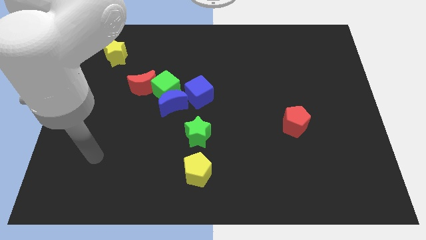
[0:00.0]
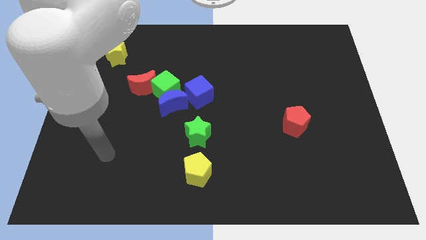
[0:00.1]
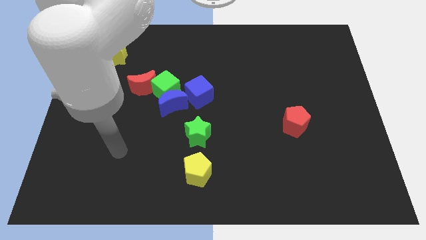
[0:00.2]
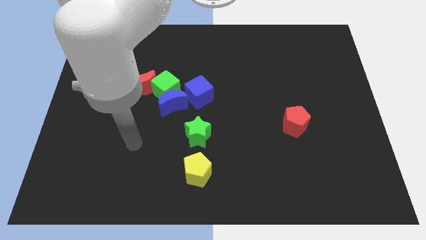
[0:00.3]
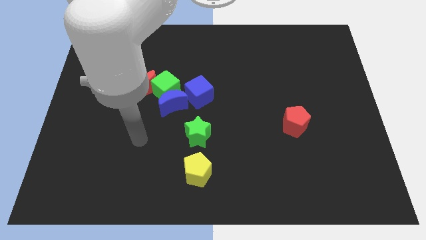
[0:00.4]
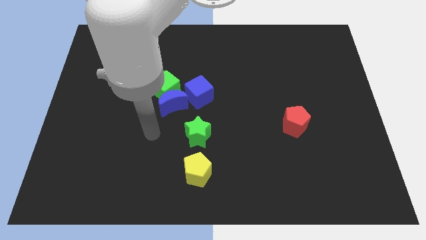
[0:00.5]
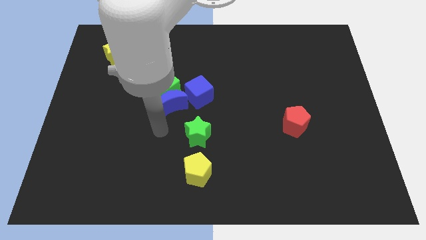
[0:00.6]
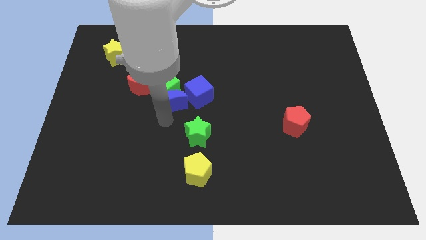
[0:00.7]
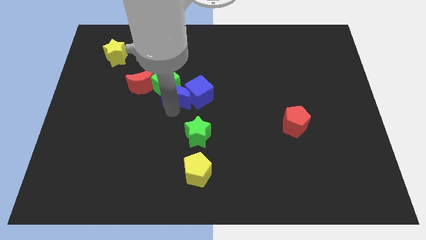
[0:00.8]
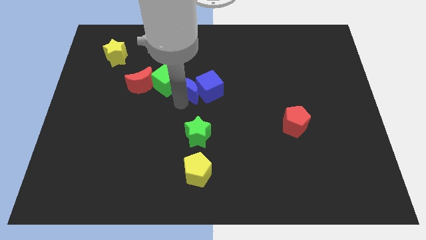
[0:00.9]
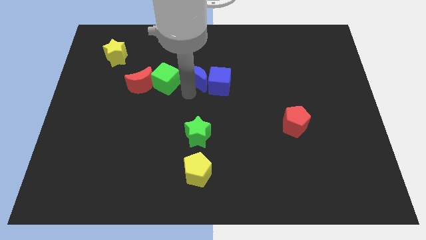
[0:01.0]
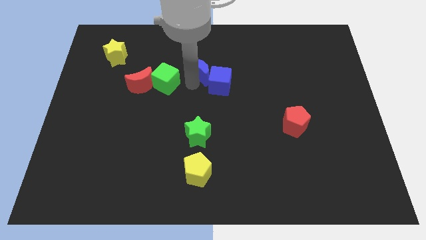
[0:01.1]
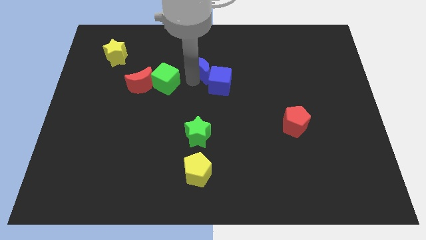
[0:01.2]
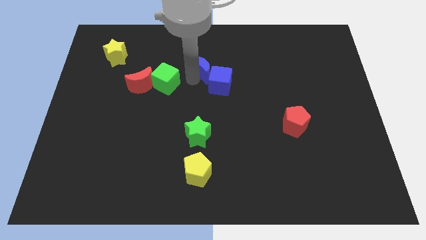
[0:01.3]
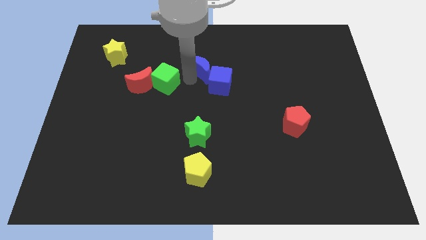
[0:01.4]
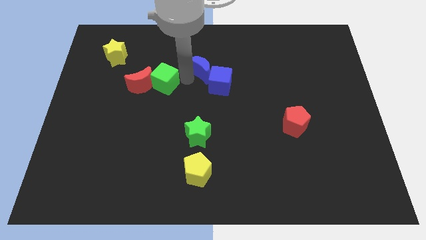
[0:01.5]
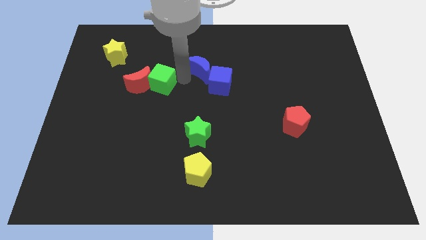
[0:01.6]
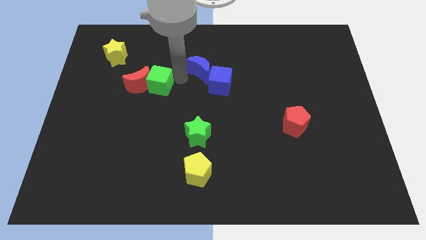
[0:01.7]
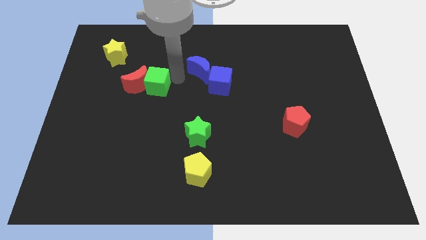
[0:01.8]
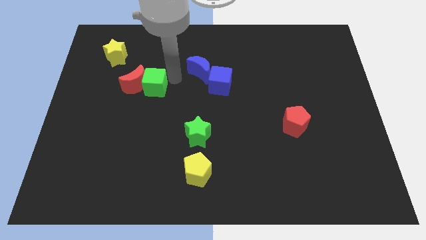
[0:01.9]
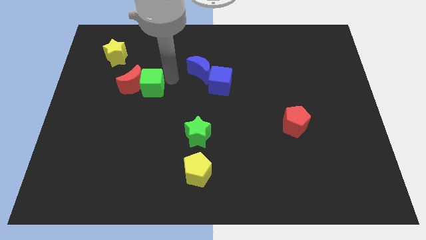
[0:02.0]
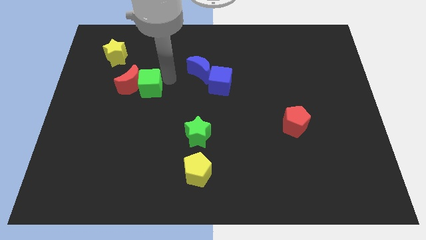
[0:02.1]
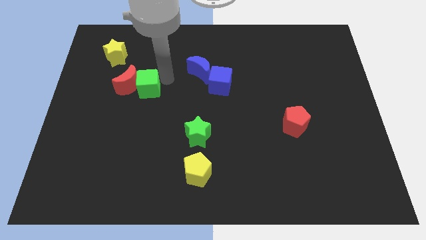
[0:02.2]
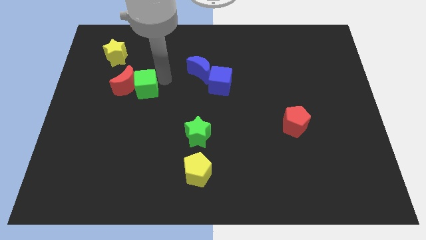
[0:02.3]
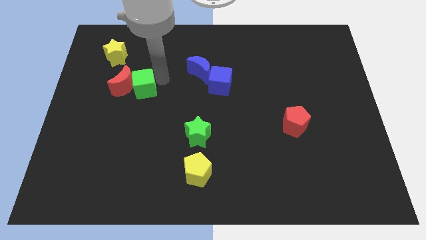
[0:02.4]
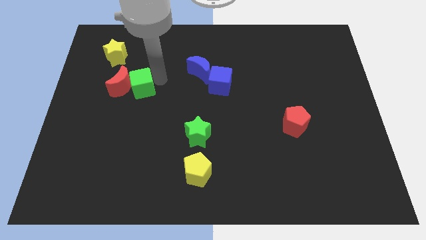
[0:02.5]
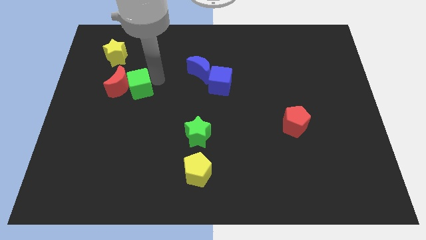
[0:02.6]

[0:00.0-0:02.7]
separate the green cube from the group of blocks

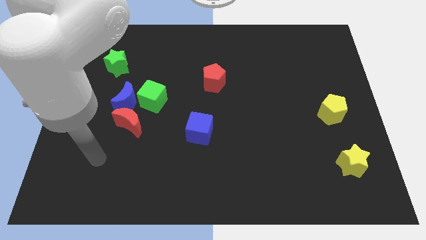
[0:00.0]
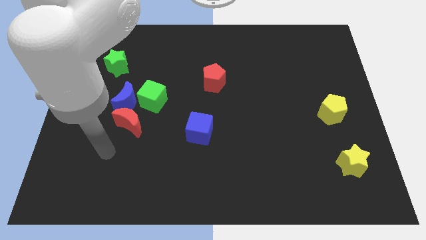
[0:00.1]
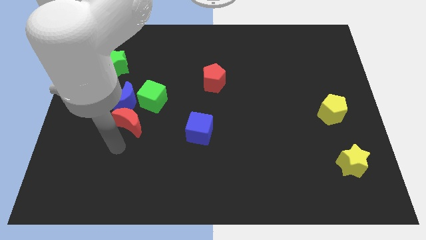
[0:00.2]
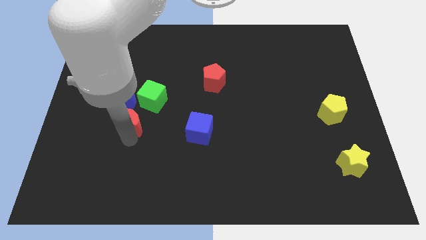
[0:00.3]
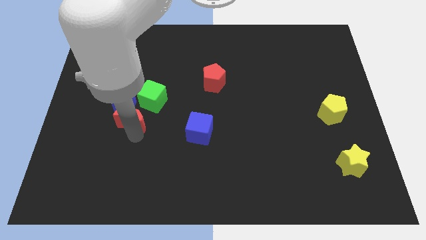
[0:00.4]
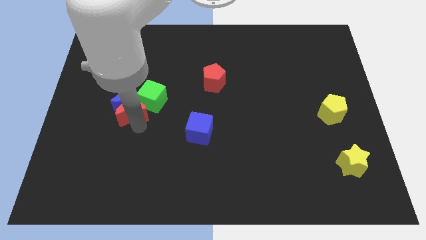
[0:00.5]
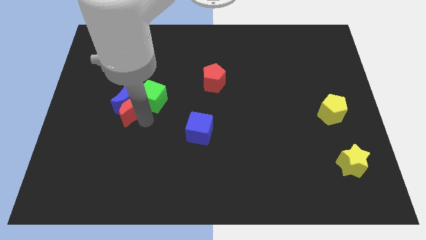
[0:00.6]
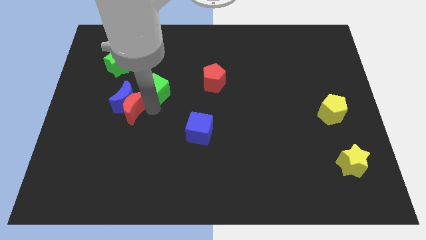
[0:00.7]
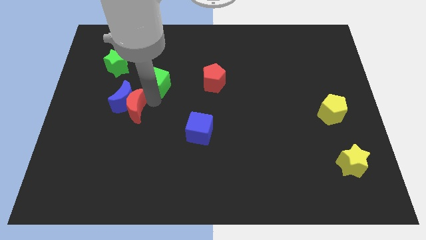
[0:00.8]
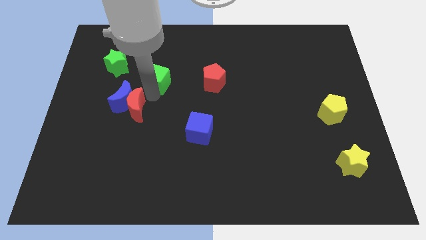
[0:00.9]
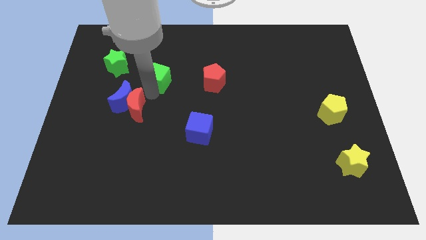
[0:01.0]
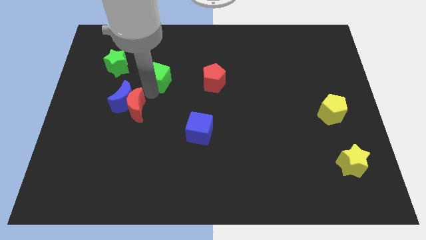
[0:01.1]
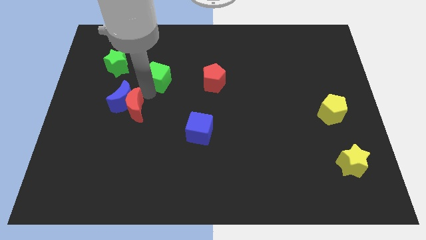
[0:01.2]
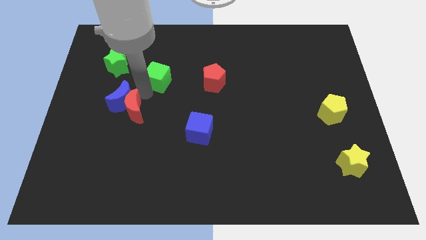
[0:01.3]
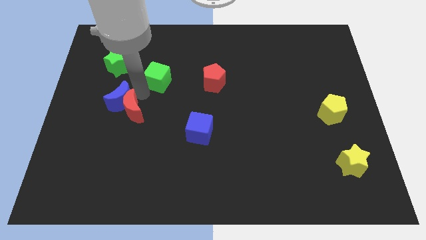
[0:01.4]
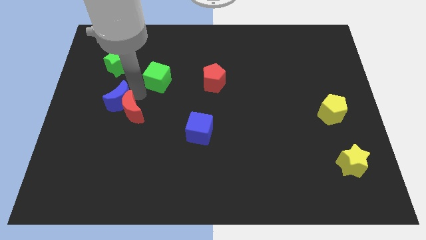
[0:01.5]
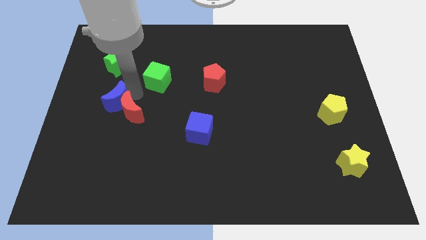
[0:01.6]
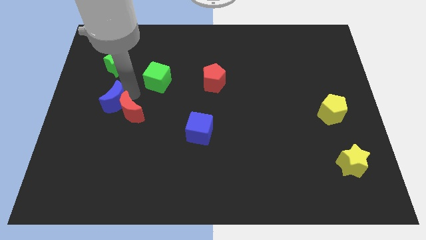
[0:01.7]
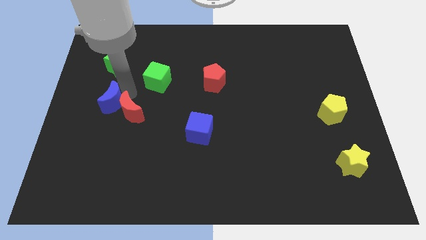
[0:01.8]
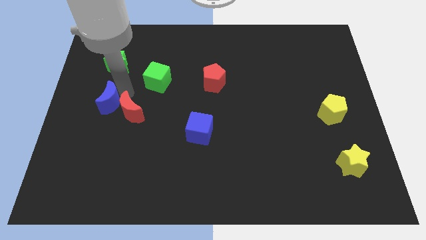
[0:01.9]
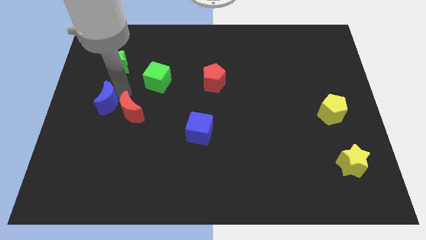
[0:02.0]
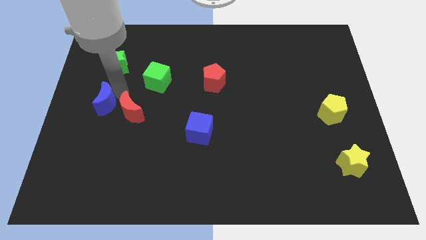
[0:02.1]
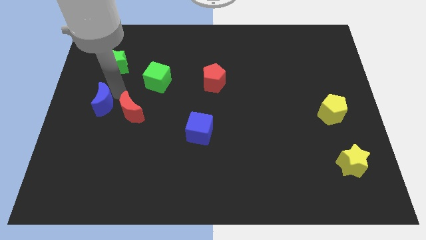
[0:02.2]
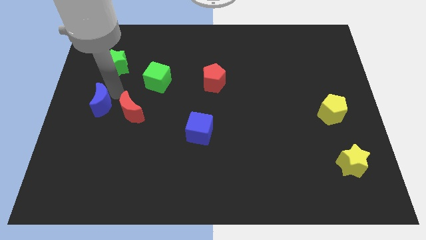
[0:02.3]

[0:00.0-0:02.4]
pull the blue moon apart from the green cube and red moon

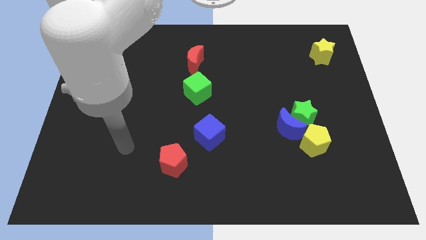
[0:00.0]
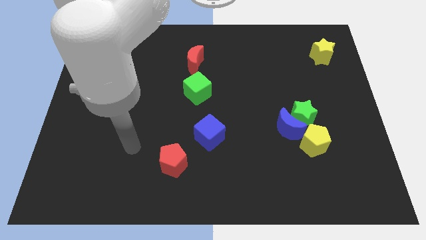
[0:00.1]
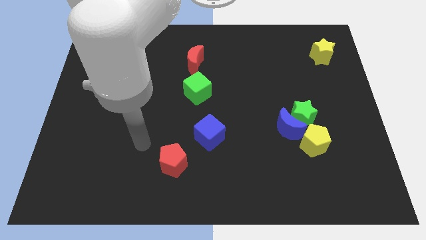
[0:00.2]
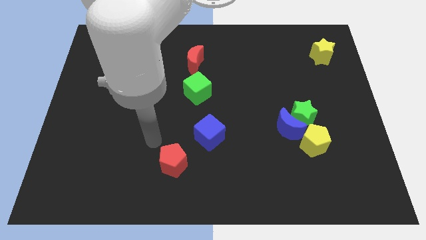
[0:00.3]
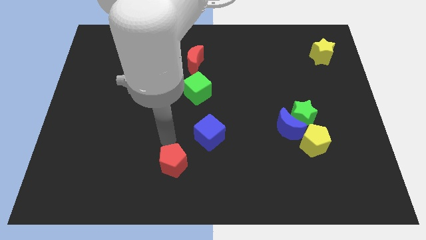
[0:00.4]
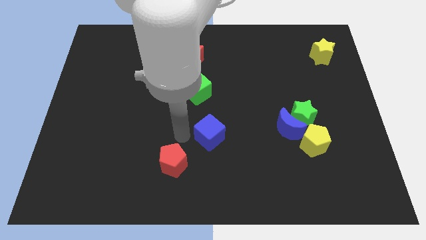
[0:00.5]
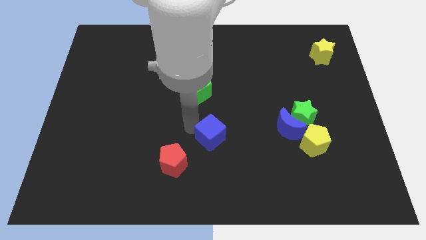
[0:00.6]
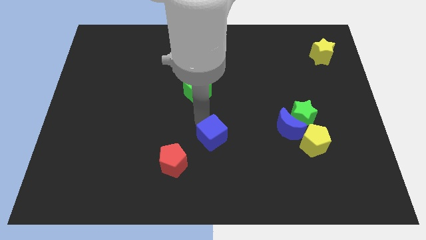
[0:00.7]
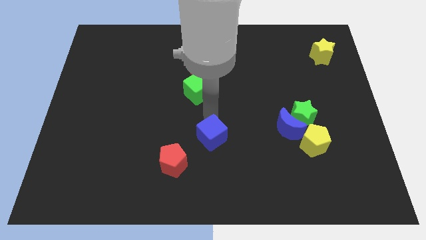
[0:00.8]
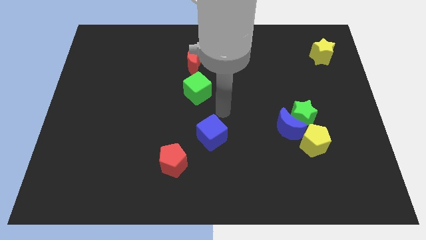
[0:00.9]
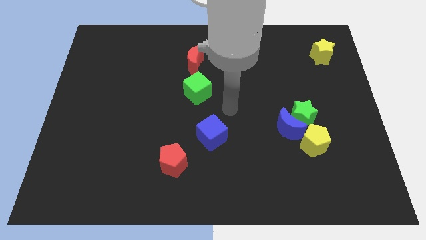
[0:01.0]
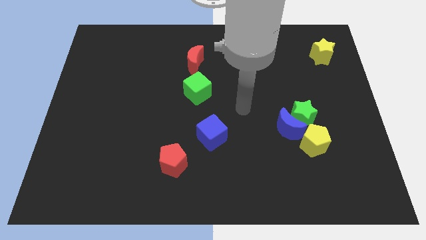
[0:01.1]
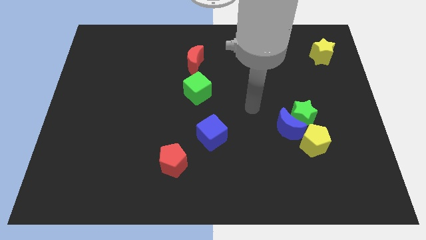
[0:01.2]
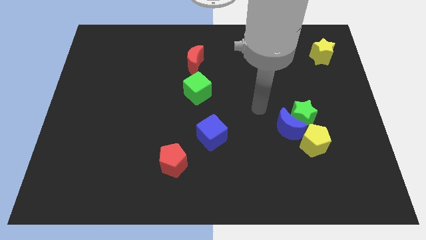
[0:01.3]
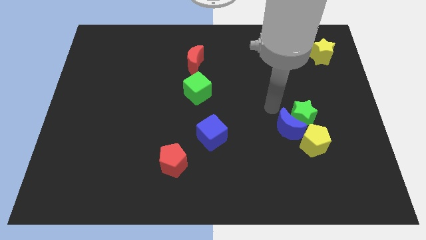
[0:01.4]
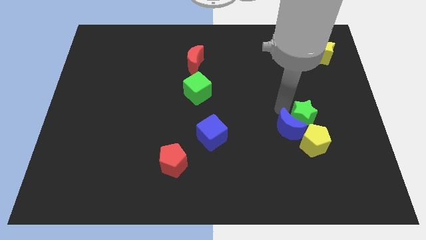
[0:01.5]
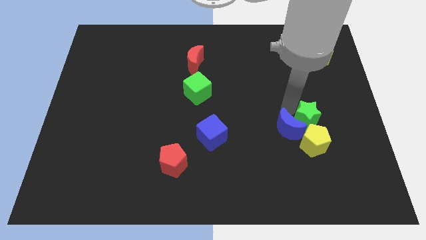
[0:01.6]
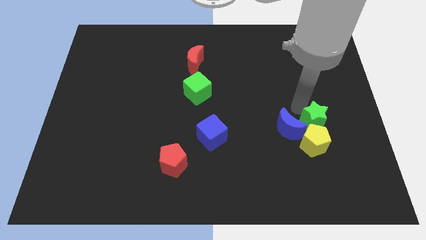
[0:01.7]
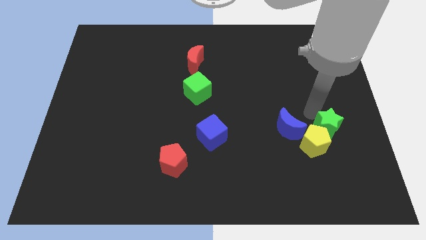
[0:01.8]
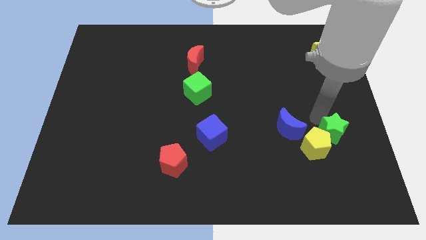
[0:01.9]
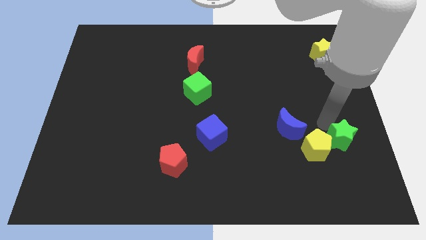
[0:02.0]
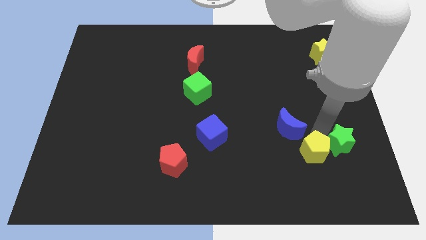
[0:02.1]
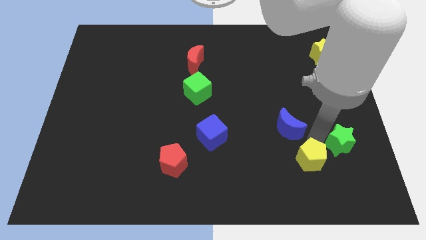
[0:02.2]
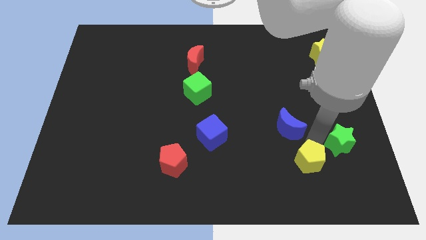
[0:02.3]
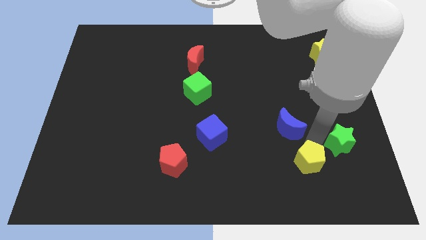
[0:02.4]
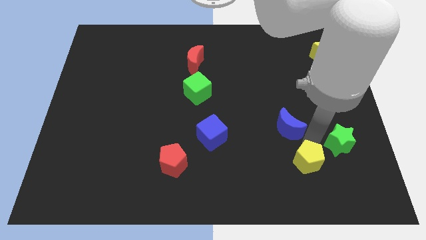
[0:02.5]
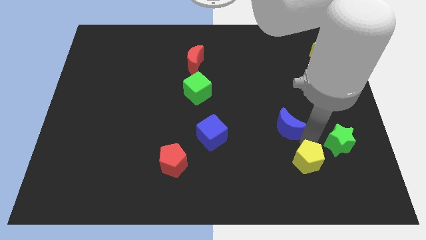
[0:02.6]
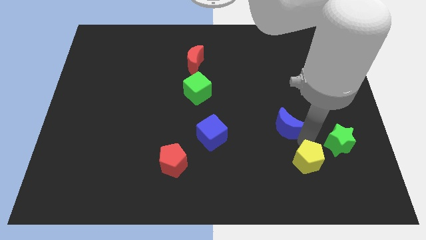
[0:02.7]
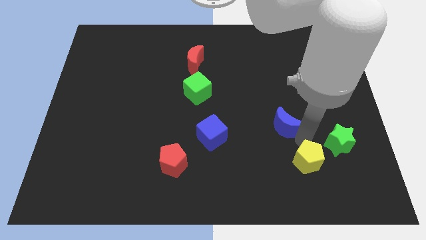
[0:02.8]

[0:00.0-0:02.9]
move the blue moon away from the green star and yellow pentagon

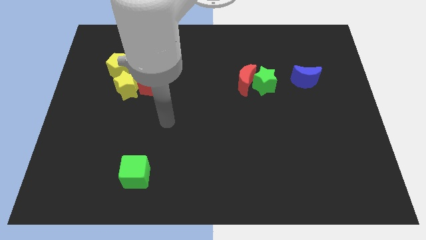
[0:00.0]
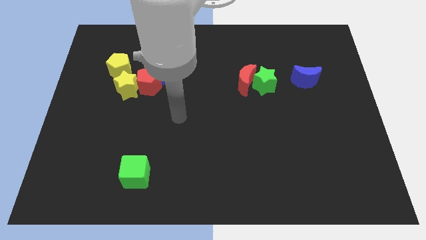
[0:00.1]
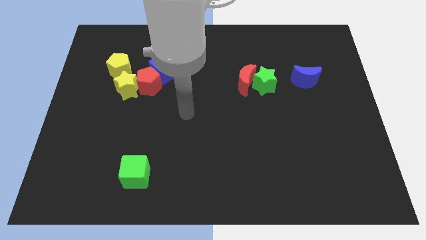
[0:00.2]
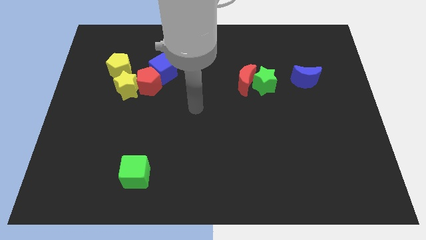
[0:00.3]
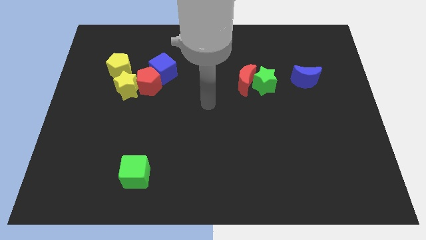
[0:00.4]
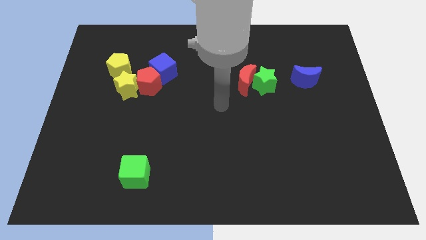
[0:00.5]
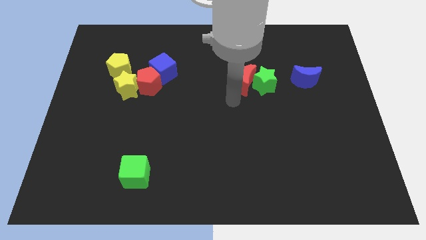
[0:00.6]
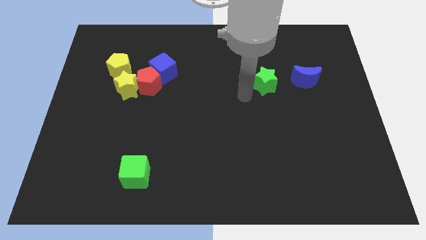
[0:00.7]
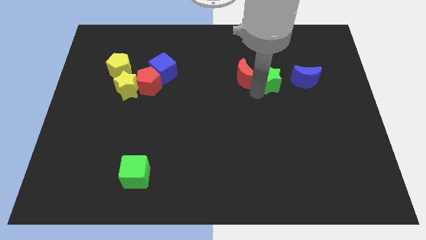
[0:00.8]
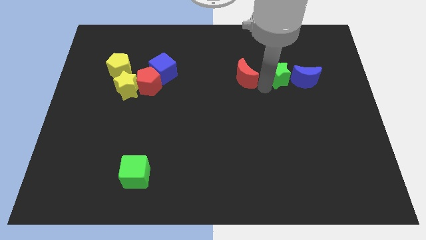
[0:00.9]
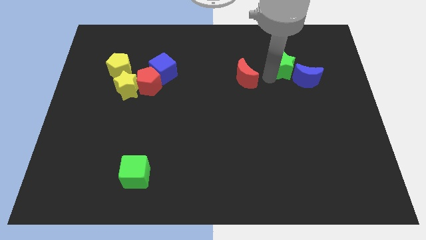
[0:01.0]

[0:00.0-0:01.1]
separate the red moon from the green star

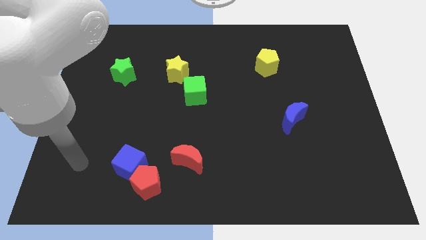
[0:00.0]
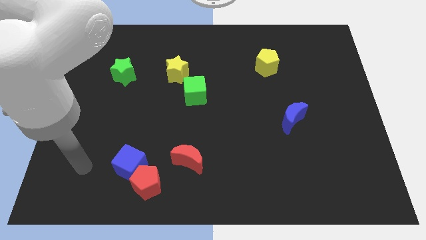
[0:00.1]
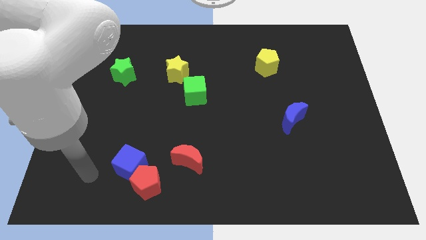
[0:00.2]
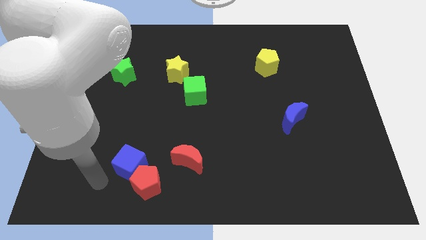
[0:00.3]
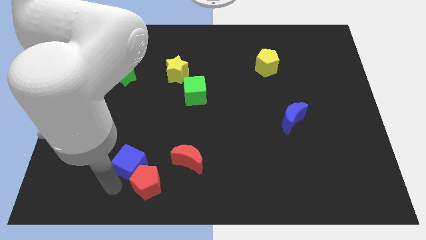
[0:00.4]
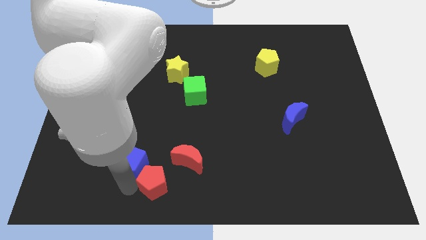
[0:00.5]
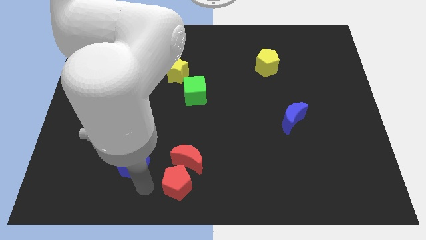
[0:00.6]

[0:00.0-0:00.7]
pull the blue cube apart from the red pentagon
